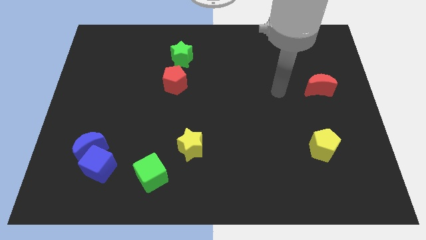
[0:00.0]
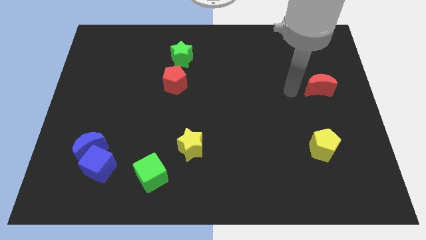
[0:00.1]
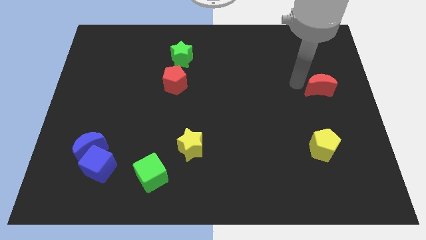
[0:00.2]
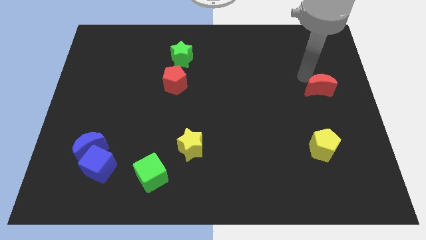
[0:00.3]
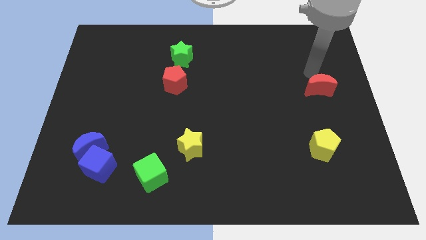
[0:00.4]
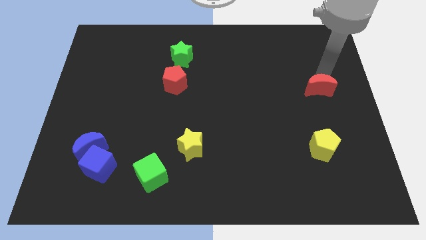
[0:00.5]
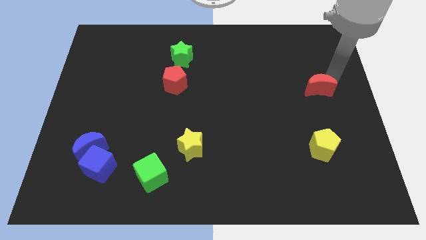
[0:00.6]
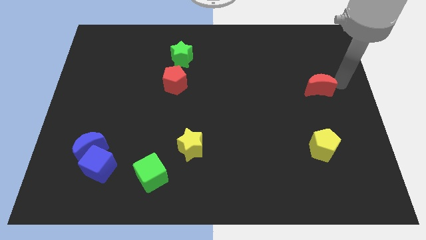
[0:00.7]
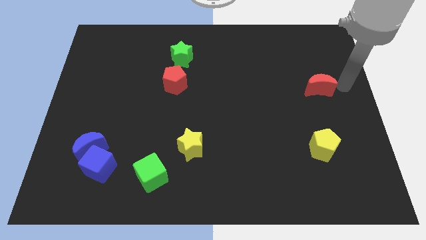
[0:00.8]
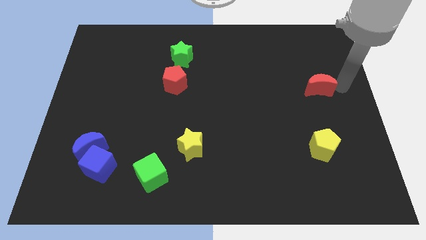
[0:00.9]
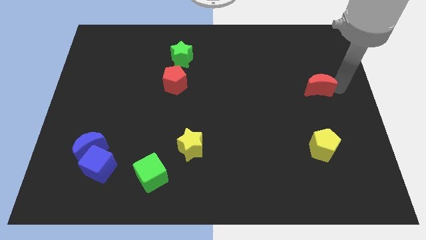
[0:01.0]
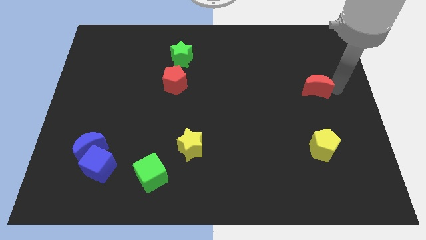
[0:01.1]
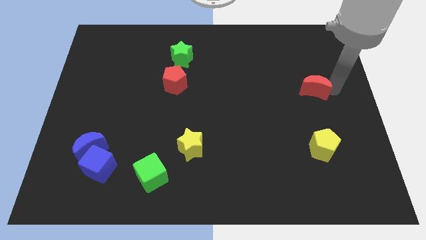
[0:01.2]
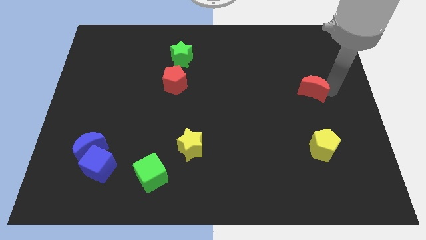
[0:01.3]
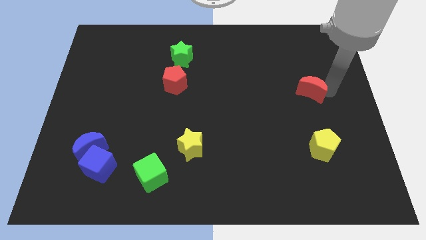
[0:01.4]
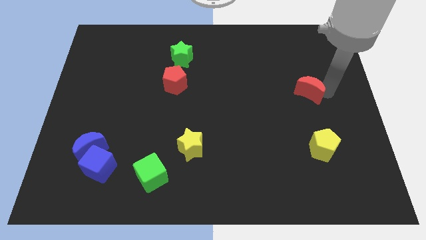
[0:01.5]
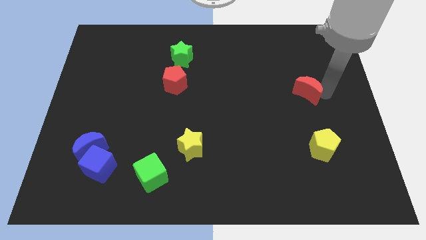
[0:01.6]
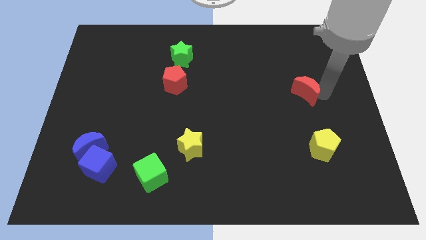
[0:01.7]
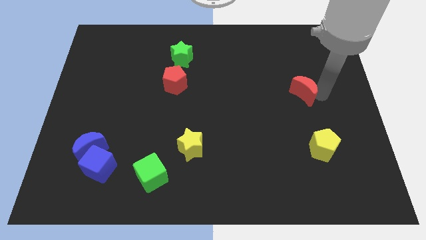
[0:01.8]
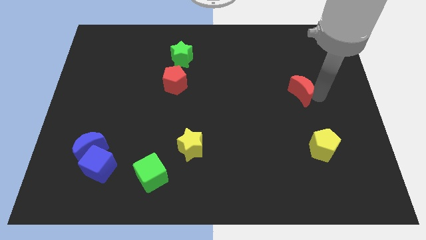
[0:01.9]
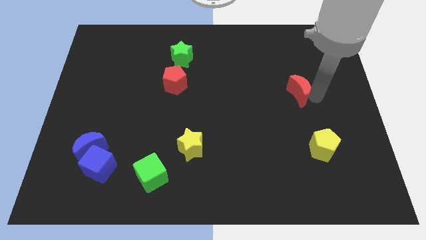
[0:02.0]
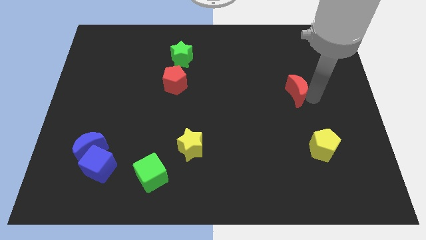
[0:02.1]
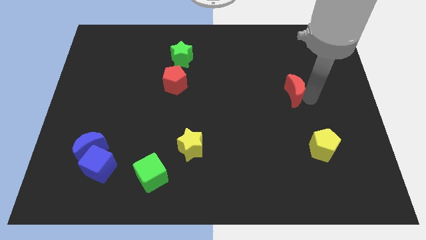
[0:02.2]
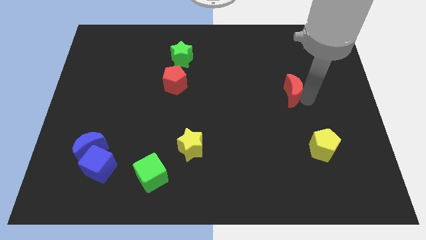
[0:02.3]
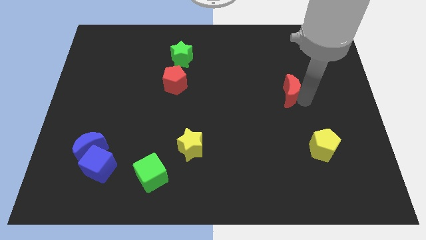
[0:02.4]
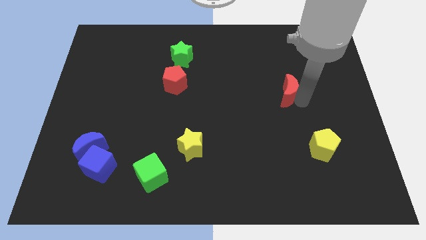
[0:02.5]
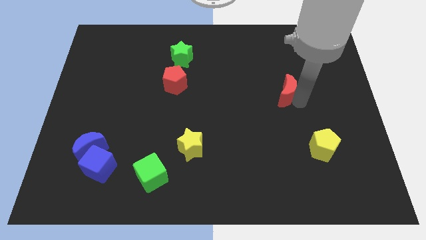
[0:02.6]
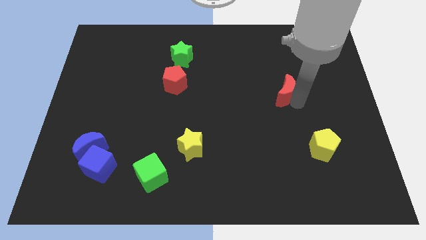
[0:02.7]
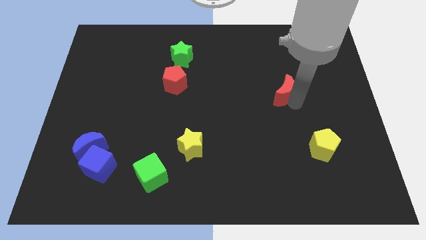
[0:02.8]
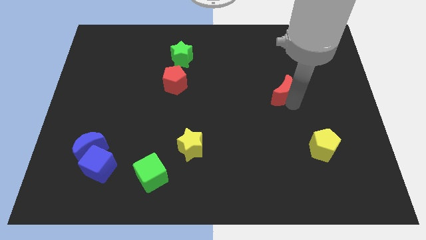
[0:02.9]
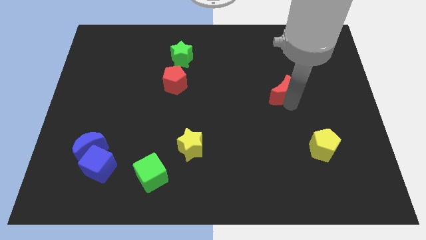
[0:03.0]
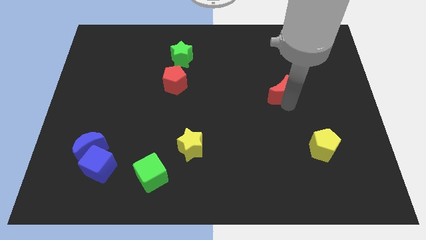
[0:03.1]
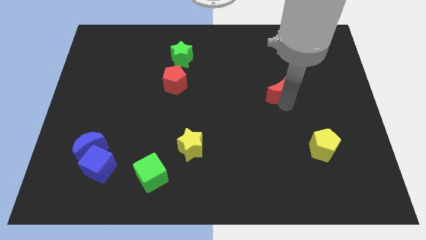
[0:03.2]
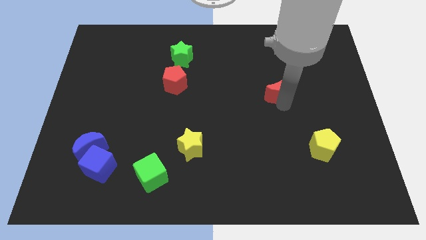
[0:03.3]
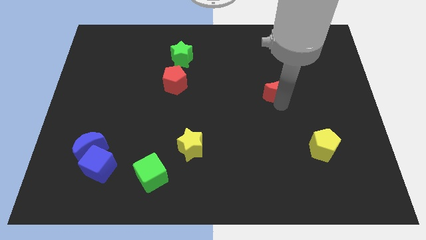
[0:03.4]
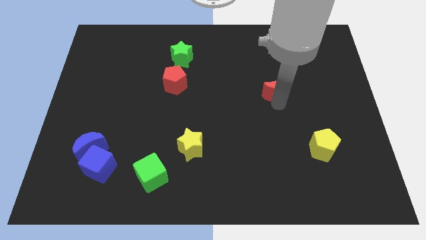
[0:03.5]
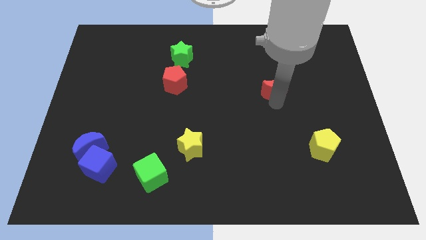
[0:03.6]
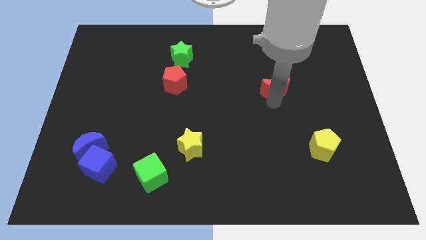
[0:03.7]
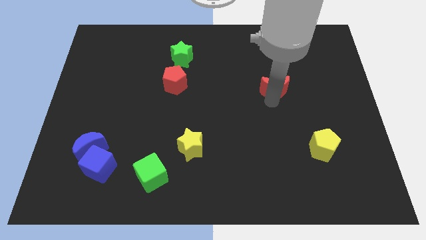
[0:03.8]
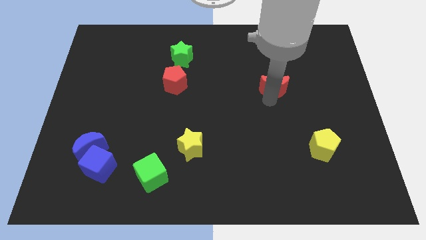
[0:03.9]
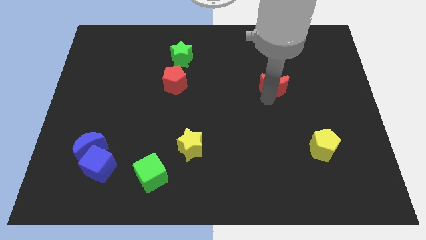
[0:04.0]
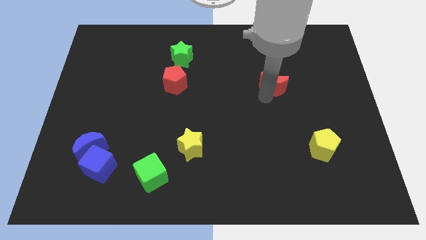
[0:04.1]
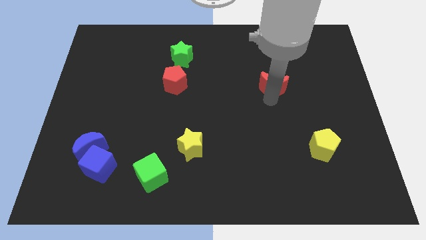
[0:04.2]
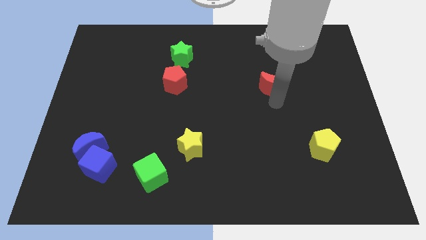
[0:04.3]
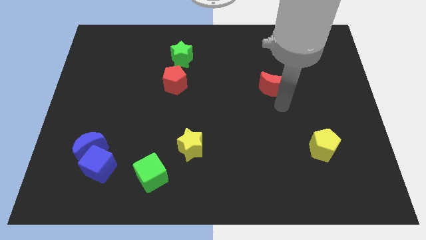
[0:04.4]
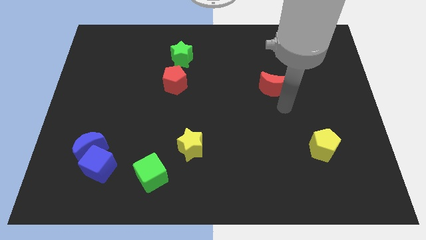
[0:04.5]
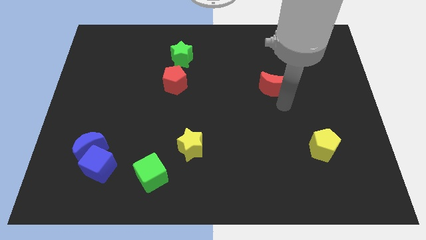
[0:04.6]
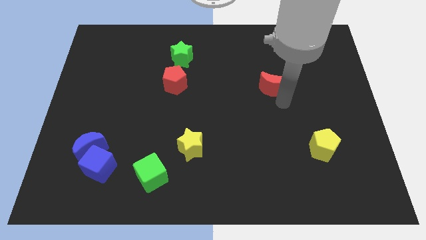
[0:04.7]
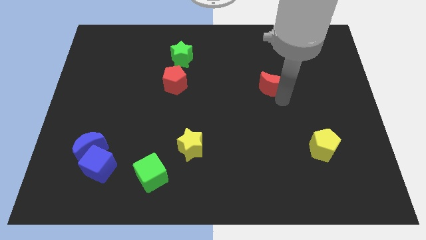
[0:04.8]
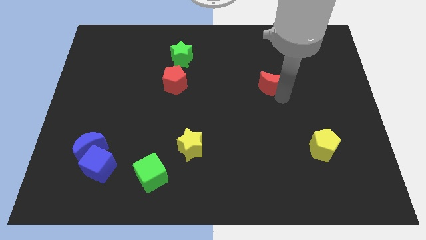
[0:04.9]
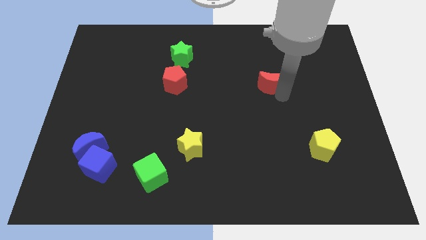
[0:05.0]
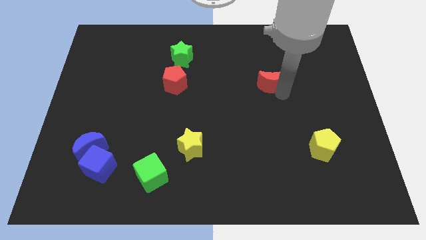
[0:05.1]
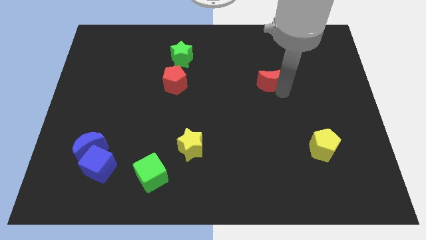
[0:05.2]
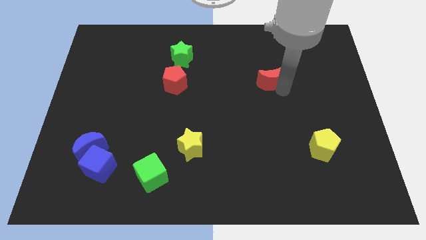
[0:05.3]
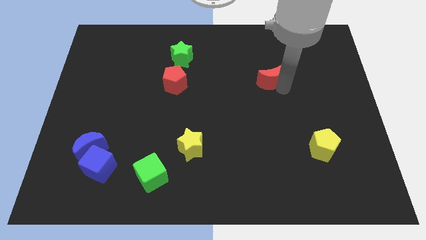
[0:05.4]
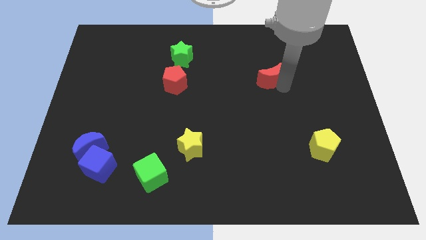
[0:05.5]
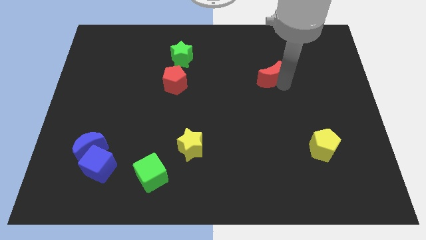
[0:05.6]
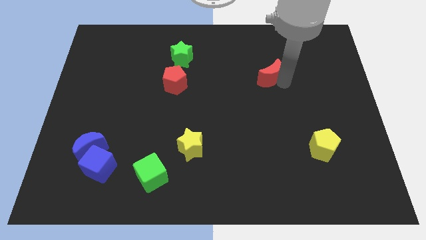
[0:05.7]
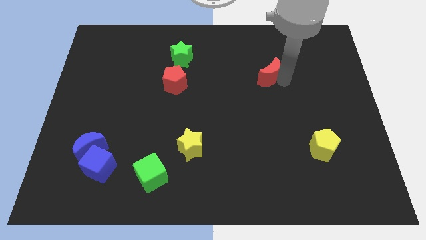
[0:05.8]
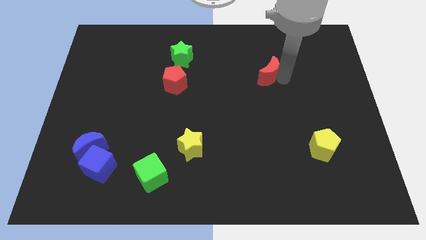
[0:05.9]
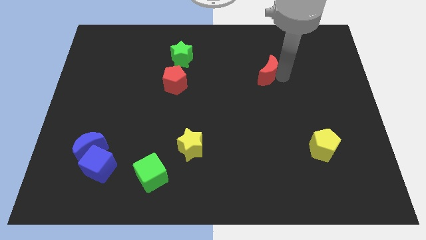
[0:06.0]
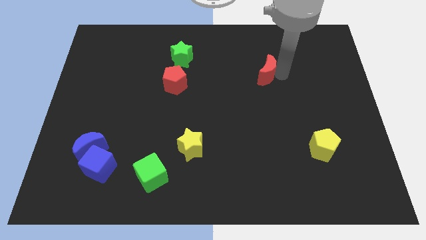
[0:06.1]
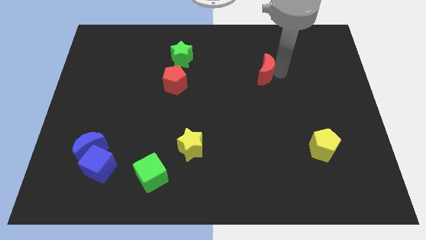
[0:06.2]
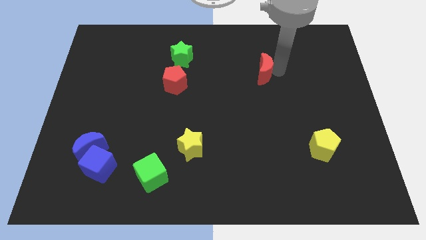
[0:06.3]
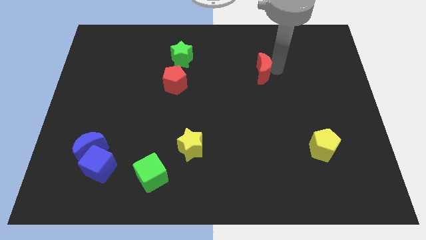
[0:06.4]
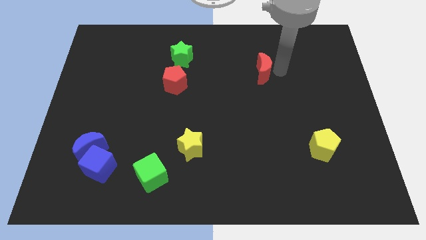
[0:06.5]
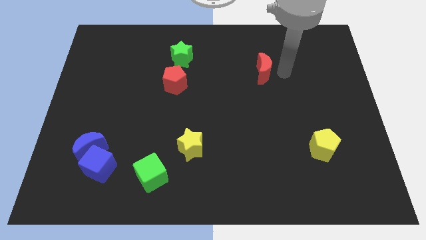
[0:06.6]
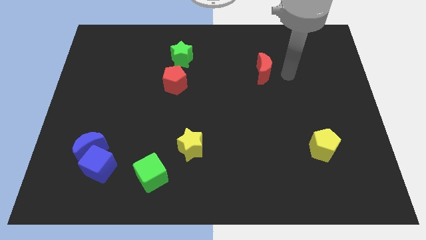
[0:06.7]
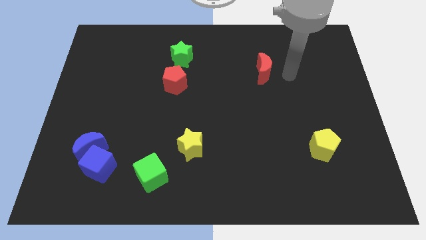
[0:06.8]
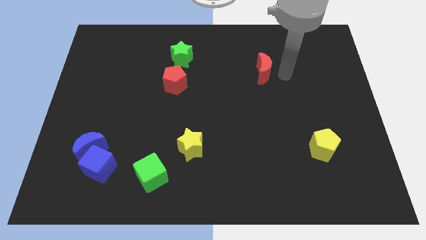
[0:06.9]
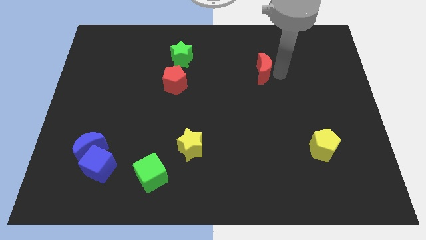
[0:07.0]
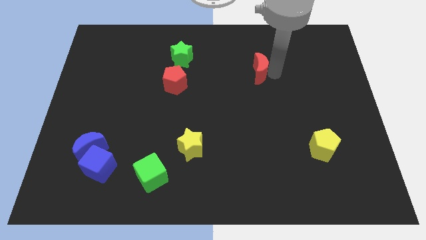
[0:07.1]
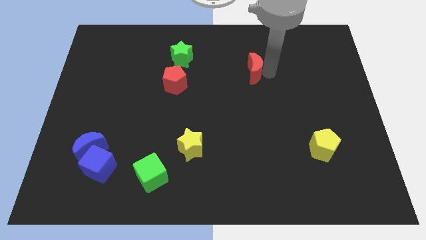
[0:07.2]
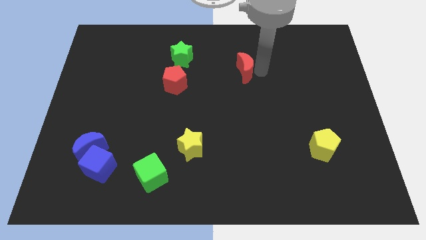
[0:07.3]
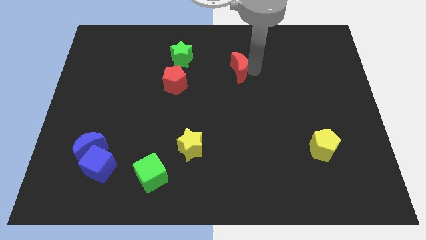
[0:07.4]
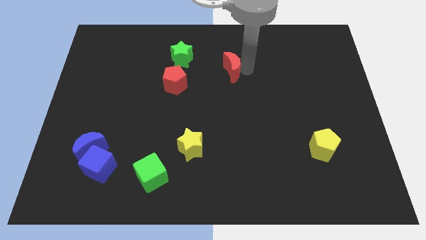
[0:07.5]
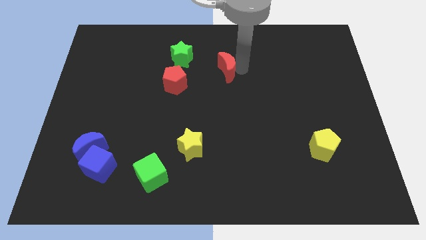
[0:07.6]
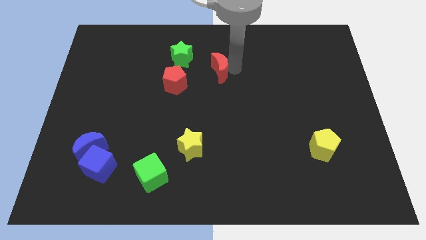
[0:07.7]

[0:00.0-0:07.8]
push the red moon diagonally down and to the right of the green star

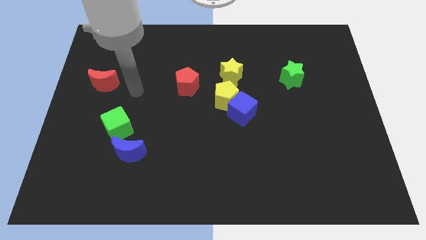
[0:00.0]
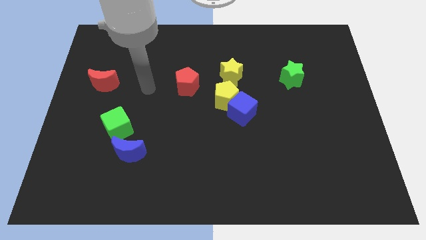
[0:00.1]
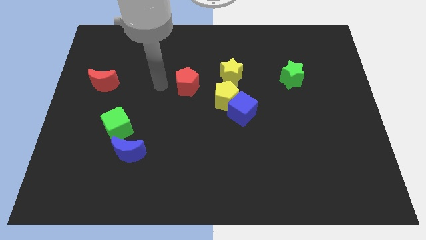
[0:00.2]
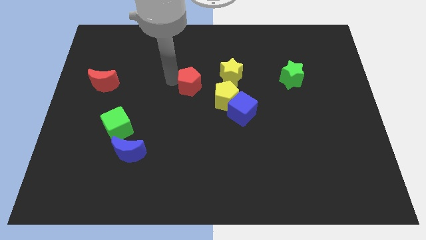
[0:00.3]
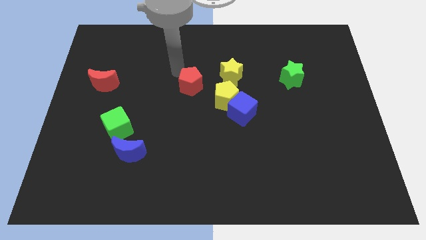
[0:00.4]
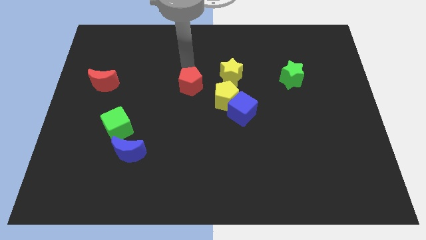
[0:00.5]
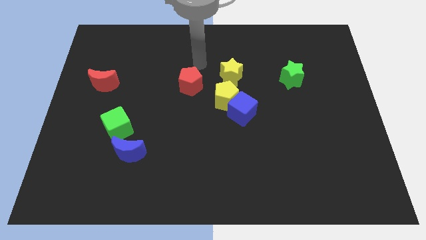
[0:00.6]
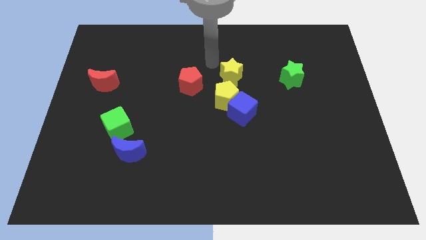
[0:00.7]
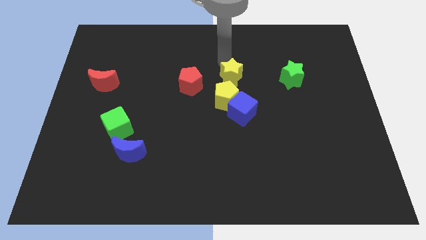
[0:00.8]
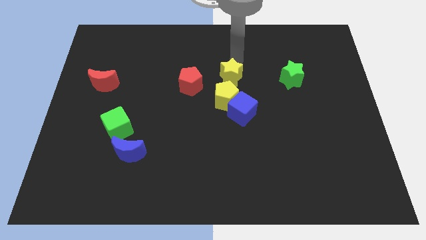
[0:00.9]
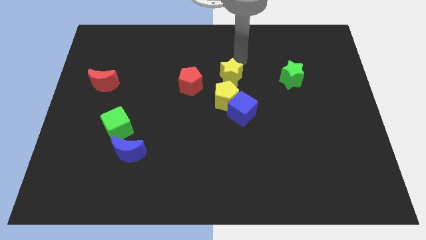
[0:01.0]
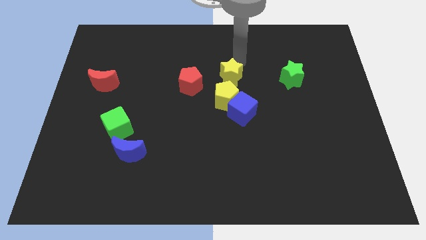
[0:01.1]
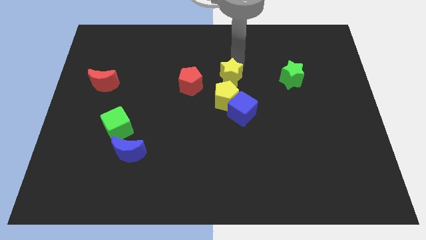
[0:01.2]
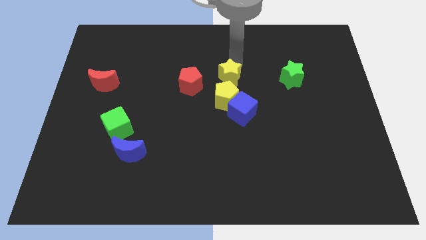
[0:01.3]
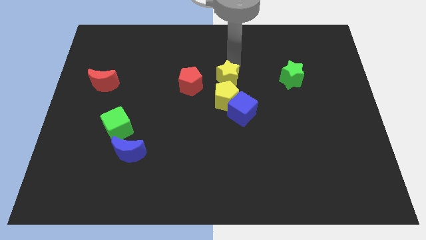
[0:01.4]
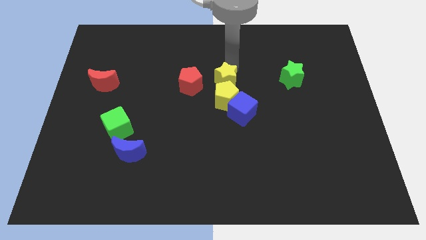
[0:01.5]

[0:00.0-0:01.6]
put the yellow star diagonally up and to the left of the blue cube
